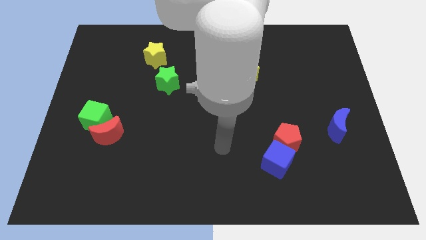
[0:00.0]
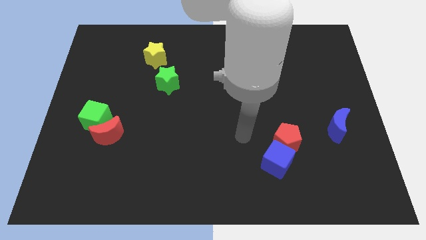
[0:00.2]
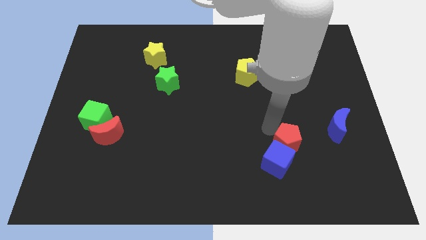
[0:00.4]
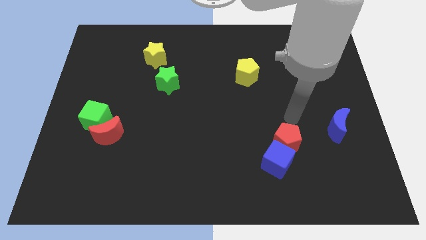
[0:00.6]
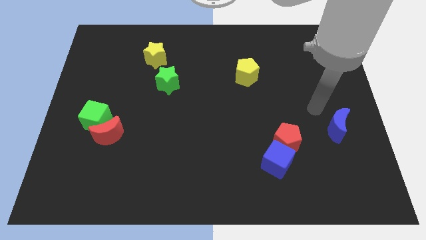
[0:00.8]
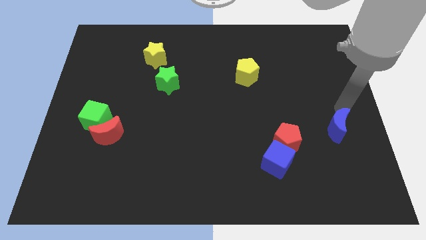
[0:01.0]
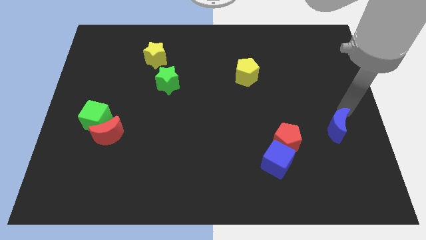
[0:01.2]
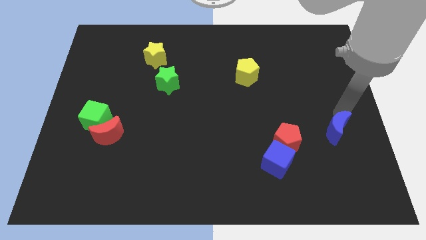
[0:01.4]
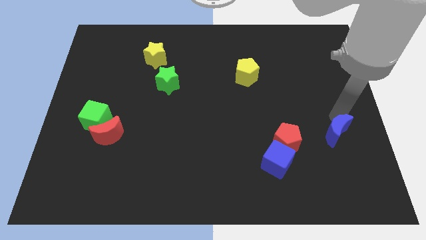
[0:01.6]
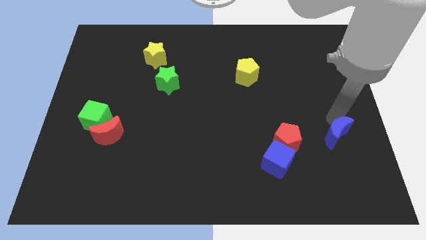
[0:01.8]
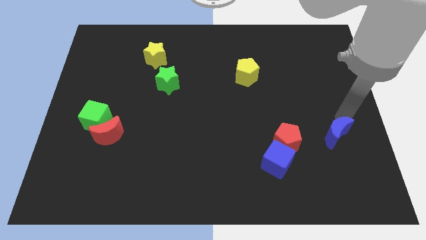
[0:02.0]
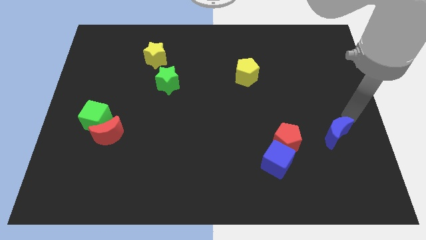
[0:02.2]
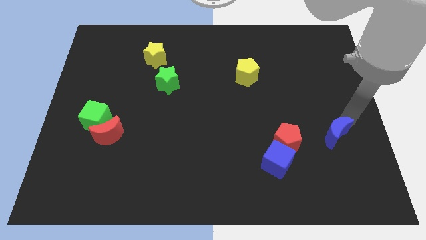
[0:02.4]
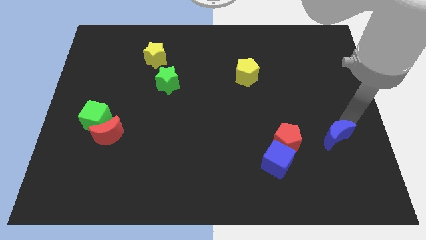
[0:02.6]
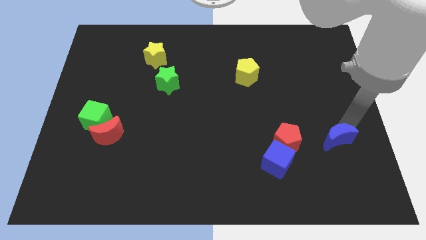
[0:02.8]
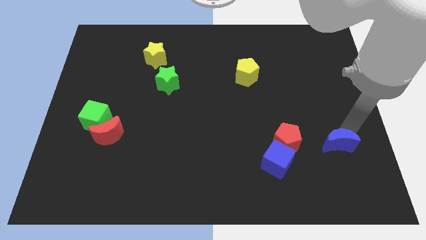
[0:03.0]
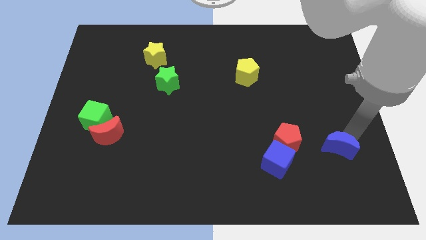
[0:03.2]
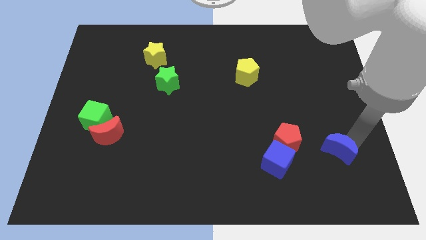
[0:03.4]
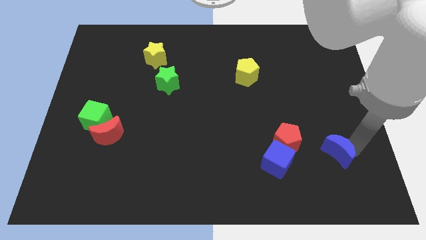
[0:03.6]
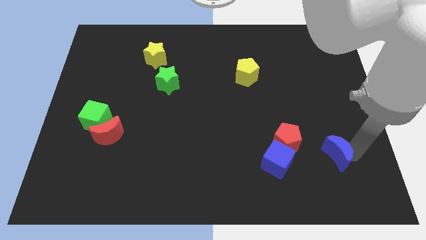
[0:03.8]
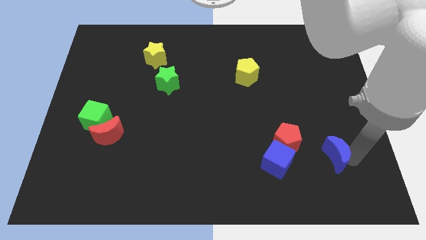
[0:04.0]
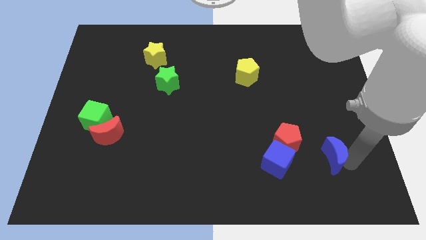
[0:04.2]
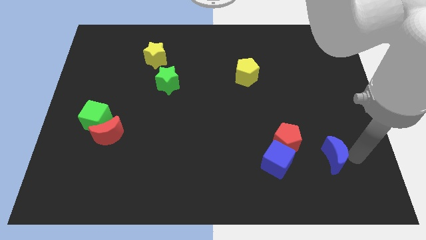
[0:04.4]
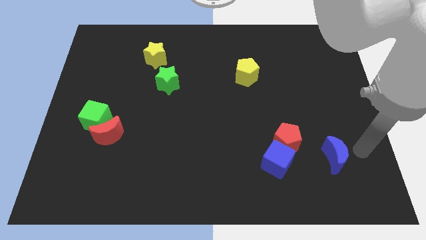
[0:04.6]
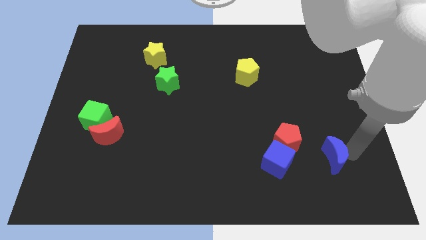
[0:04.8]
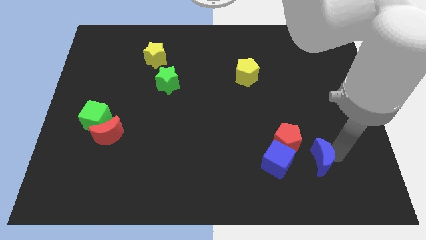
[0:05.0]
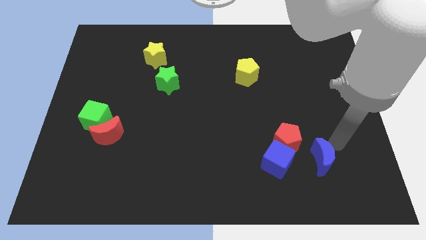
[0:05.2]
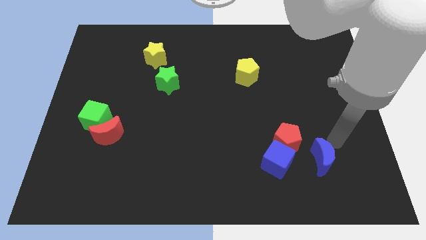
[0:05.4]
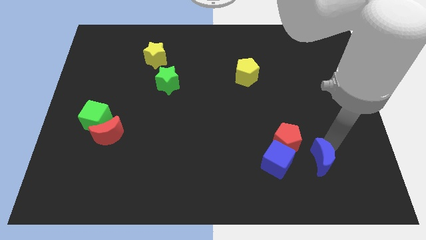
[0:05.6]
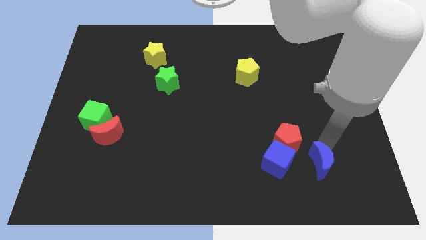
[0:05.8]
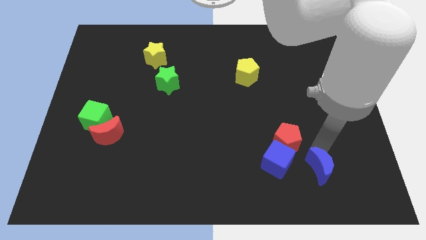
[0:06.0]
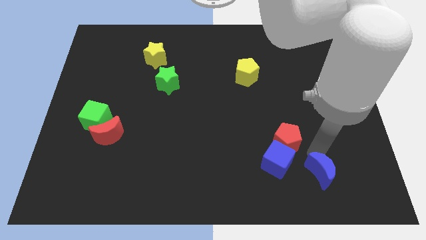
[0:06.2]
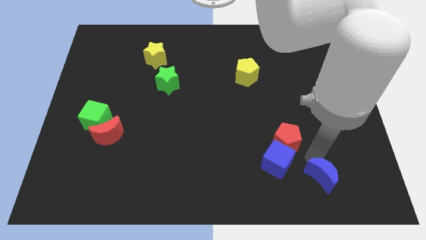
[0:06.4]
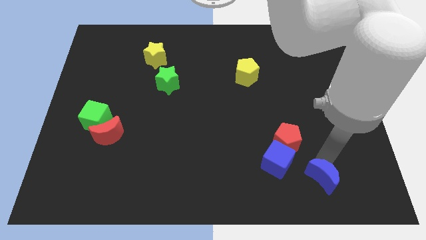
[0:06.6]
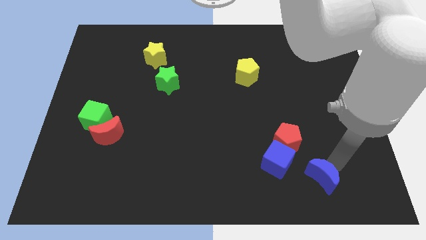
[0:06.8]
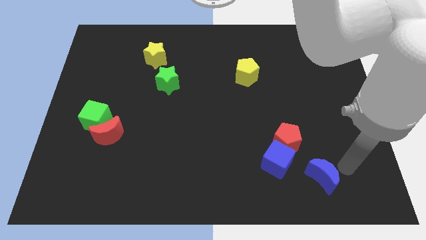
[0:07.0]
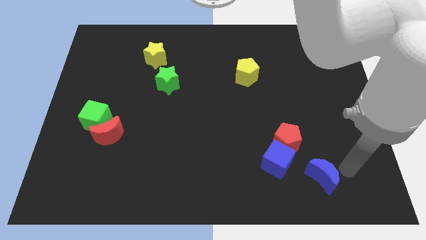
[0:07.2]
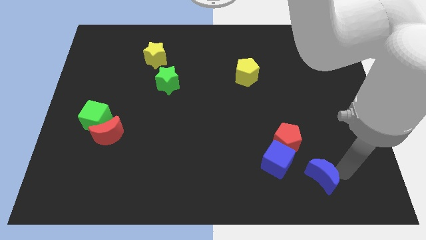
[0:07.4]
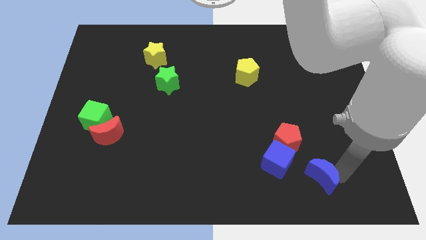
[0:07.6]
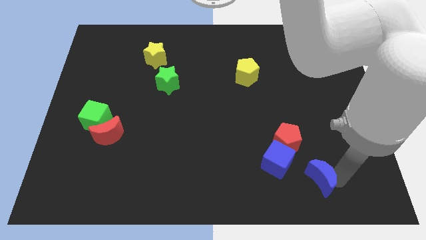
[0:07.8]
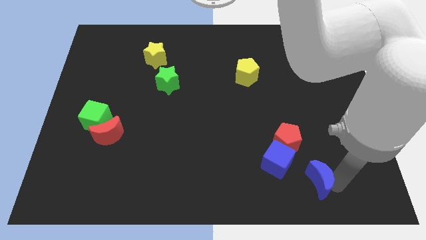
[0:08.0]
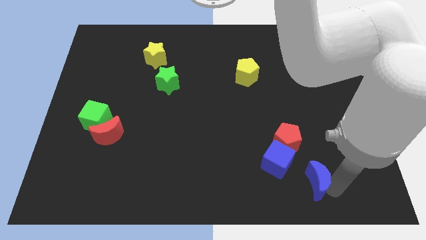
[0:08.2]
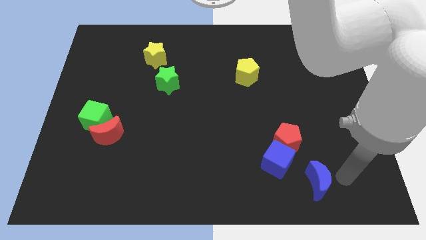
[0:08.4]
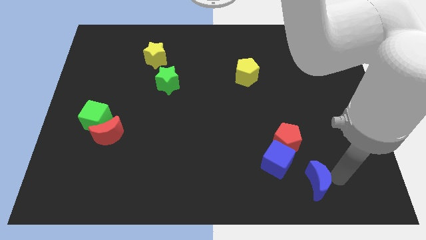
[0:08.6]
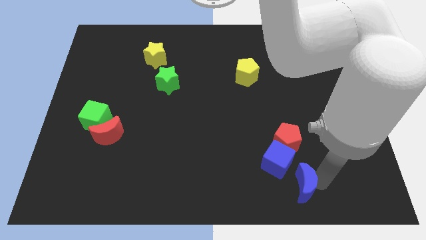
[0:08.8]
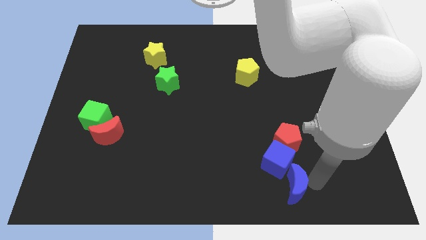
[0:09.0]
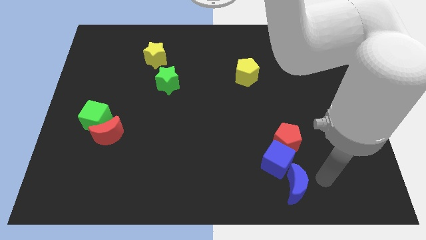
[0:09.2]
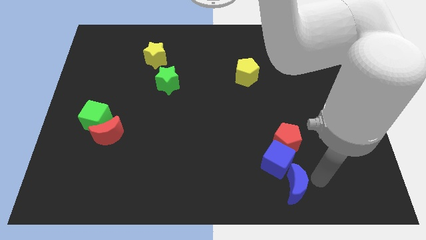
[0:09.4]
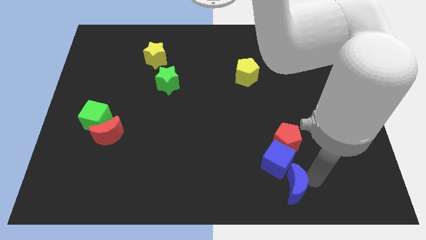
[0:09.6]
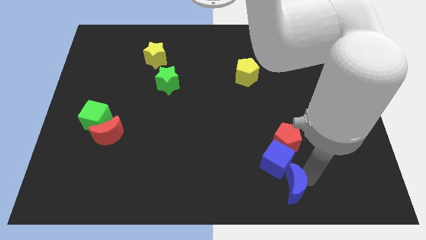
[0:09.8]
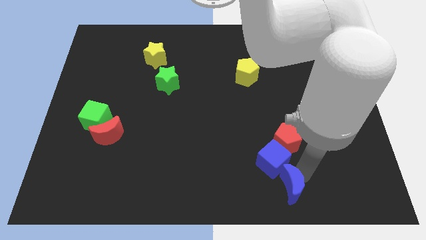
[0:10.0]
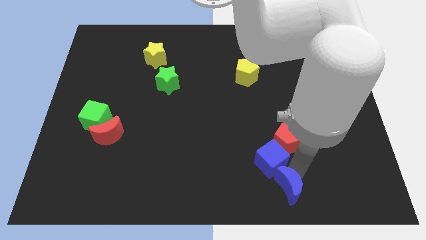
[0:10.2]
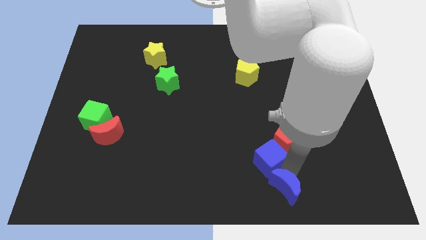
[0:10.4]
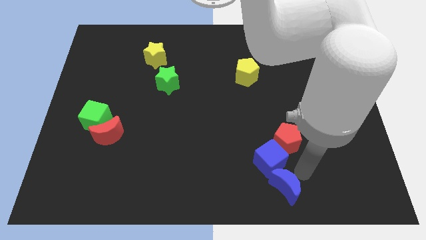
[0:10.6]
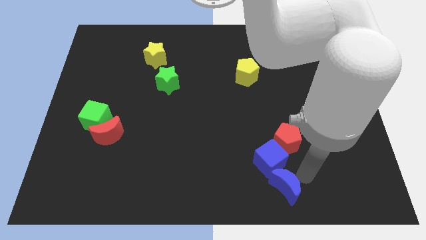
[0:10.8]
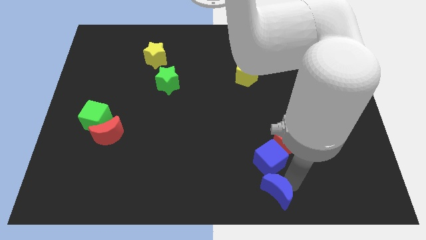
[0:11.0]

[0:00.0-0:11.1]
slide the blue moon to the bottom

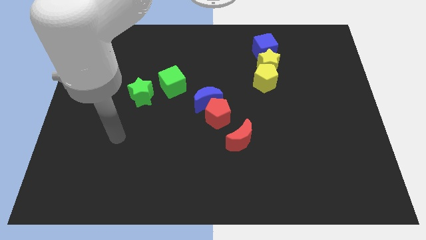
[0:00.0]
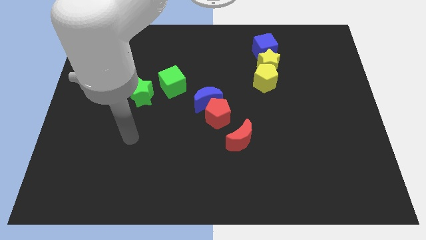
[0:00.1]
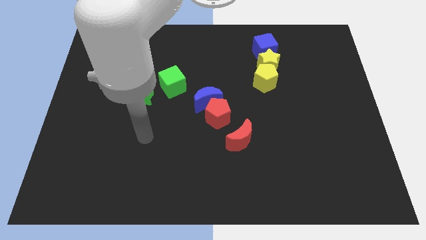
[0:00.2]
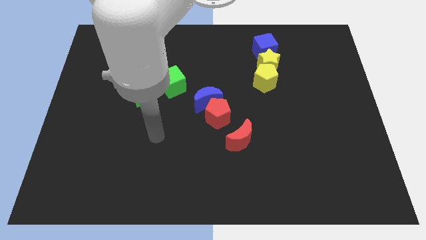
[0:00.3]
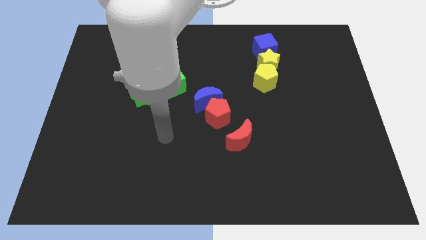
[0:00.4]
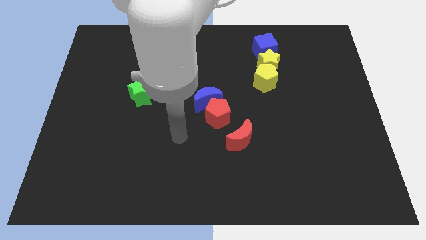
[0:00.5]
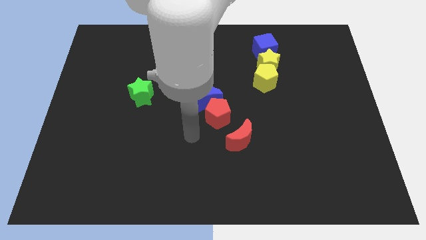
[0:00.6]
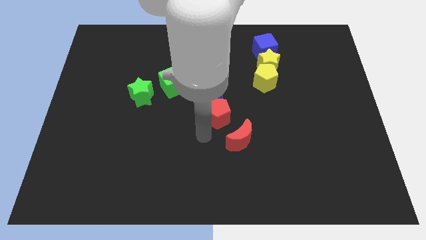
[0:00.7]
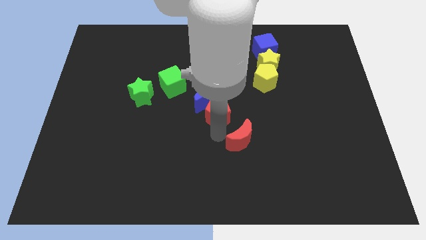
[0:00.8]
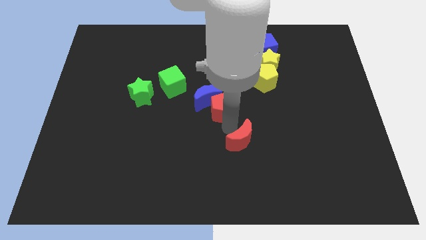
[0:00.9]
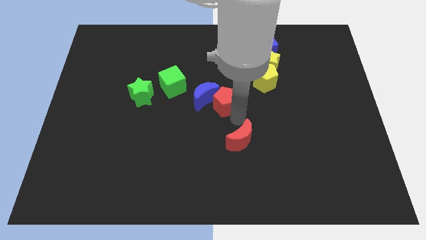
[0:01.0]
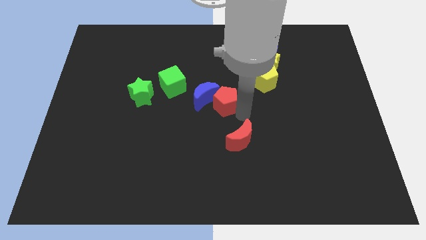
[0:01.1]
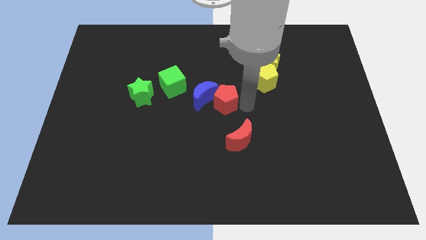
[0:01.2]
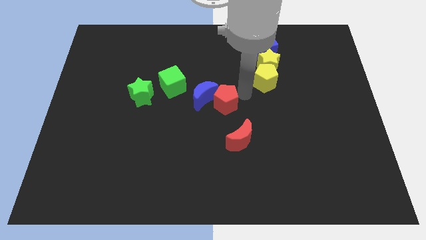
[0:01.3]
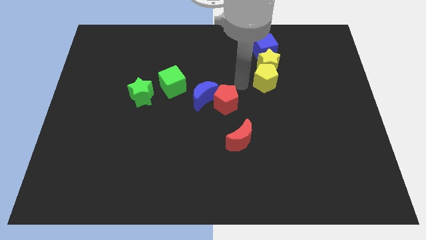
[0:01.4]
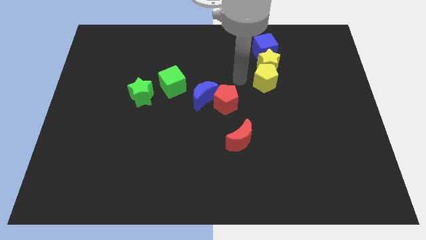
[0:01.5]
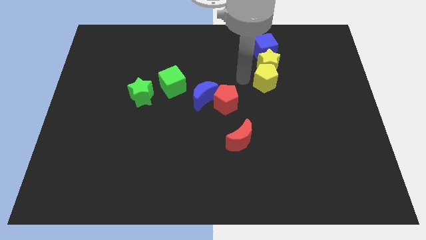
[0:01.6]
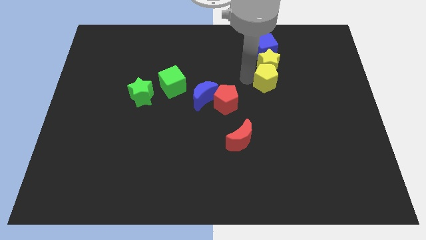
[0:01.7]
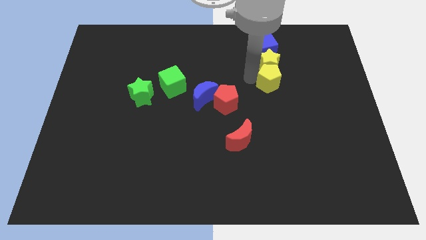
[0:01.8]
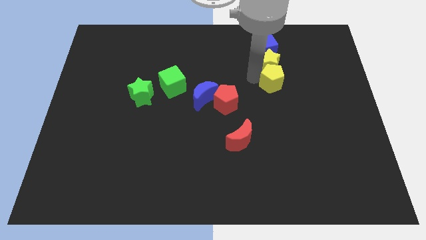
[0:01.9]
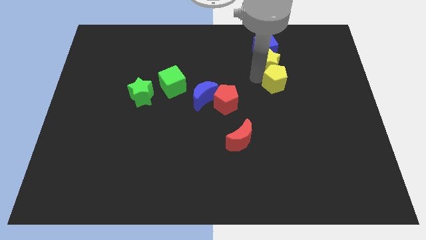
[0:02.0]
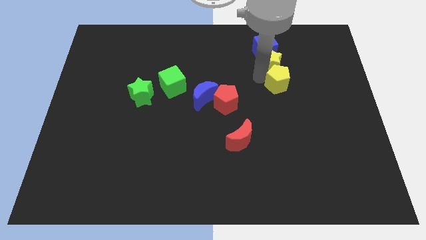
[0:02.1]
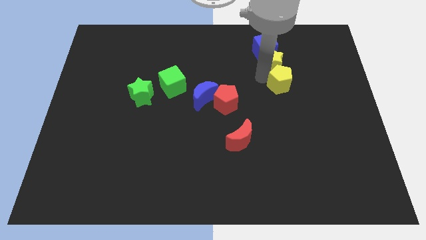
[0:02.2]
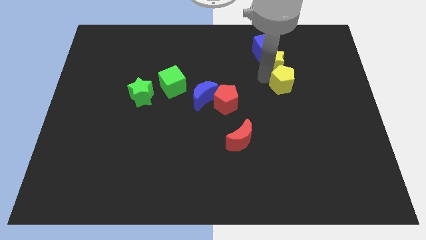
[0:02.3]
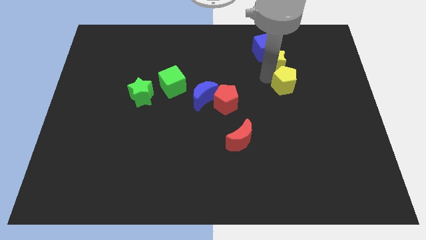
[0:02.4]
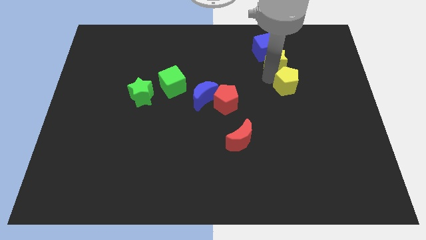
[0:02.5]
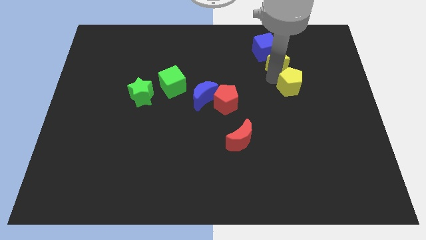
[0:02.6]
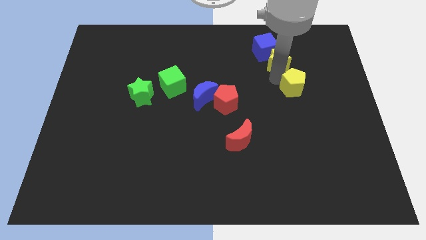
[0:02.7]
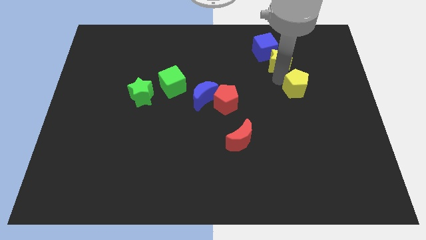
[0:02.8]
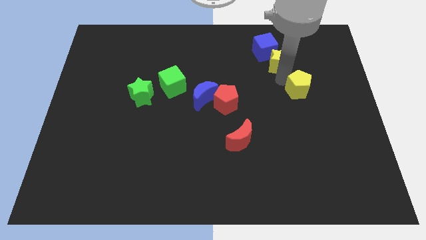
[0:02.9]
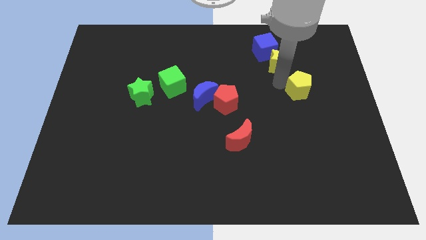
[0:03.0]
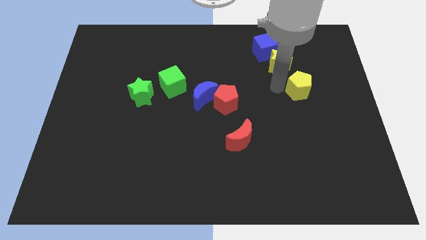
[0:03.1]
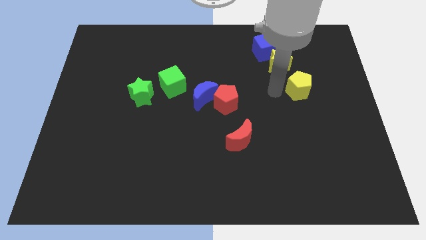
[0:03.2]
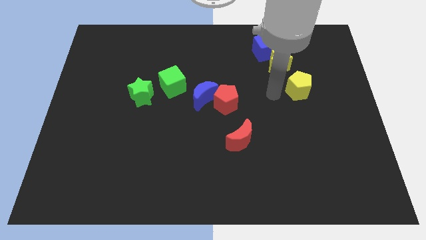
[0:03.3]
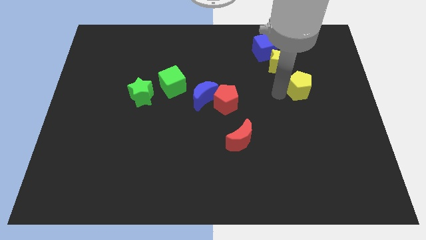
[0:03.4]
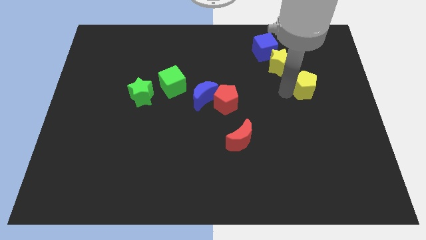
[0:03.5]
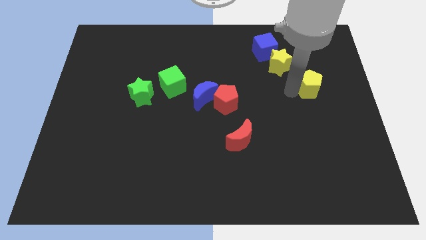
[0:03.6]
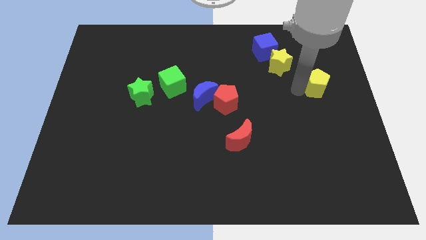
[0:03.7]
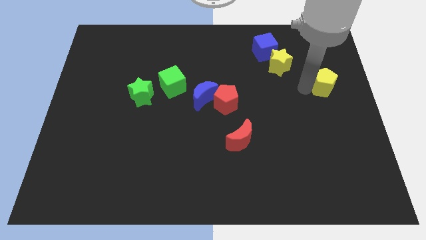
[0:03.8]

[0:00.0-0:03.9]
move the yellow pentagon to the right side of the board
